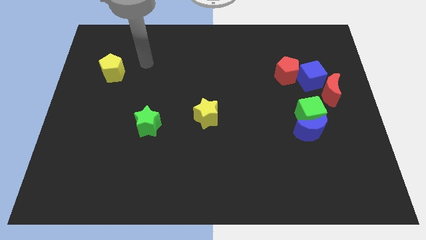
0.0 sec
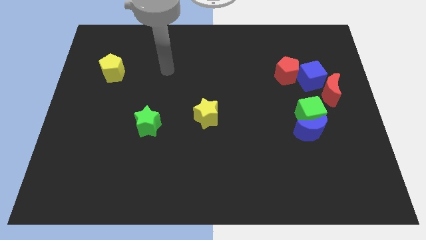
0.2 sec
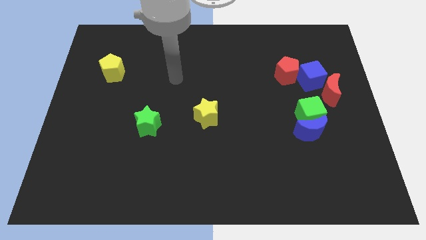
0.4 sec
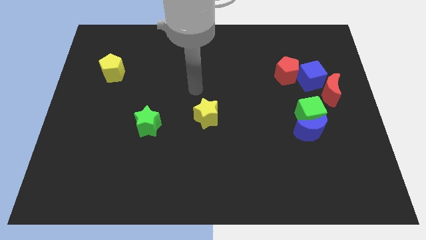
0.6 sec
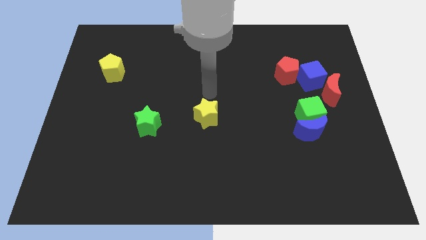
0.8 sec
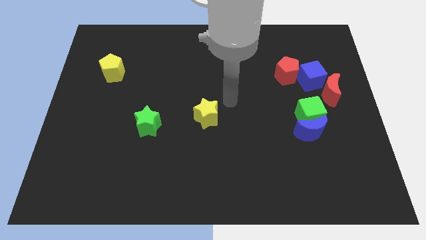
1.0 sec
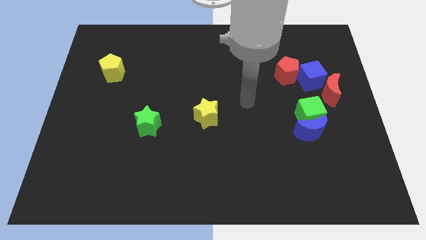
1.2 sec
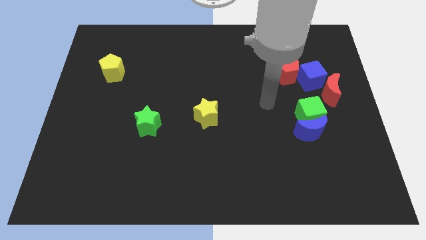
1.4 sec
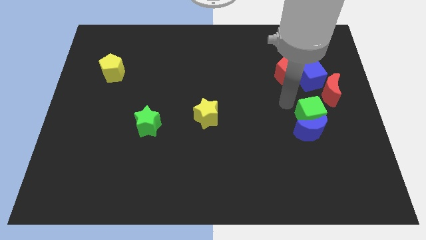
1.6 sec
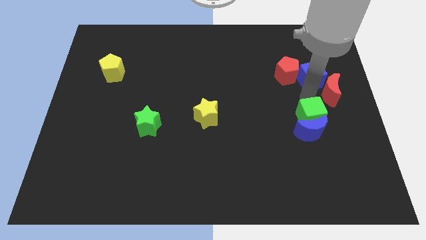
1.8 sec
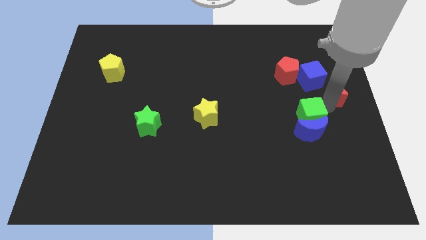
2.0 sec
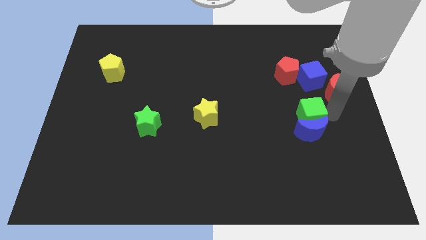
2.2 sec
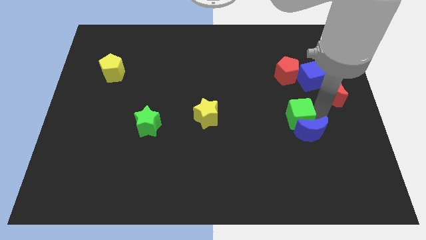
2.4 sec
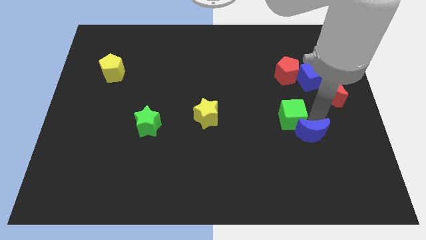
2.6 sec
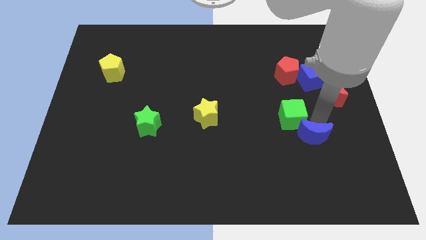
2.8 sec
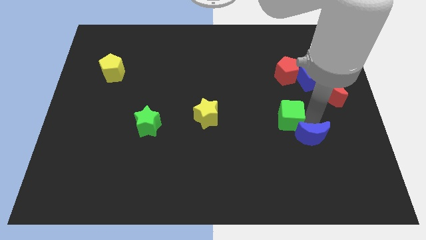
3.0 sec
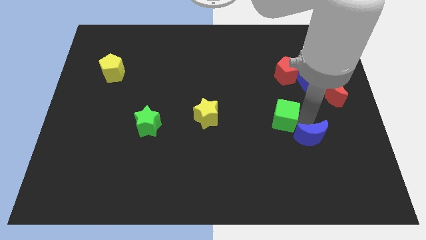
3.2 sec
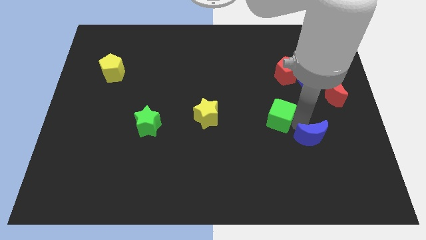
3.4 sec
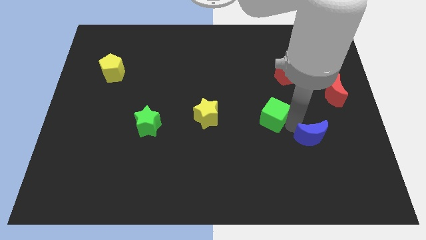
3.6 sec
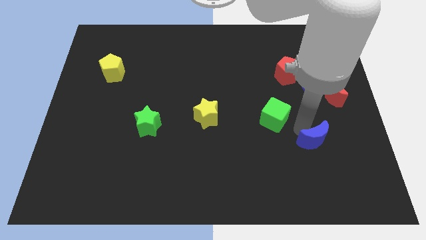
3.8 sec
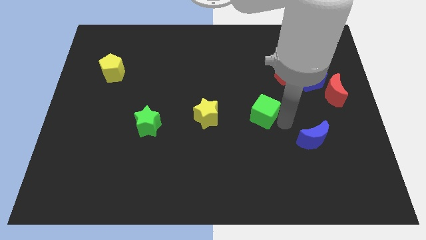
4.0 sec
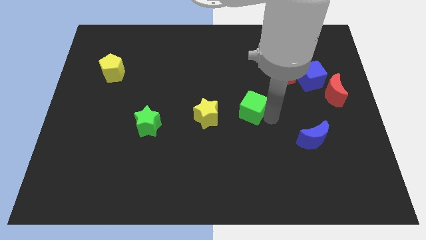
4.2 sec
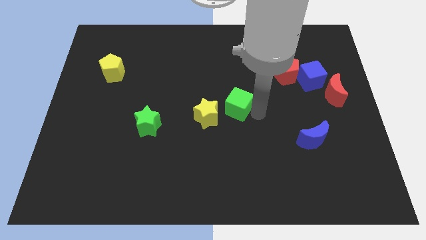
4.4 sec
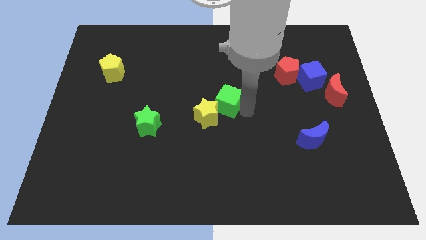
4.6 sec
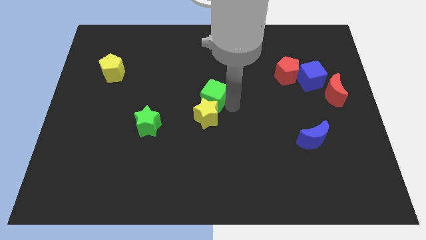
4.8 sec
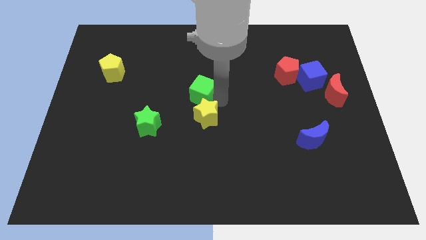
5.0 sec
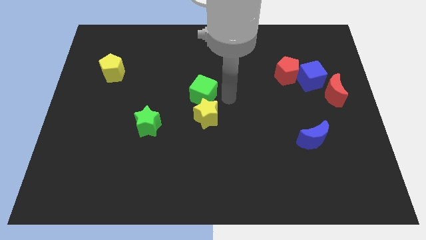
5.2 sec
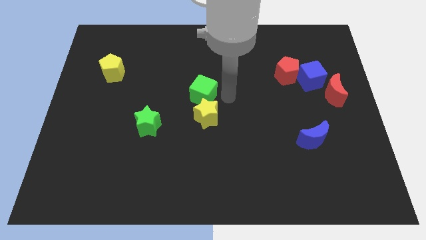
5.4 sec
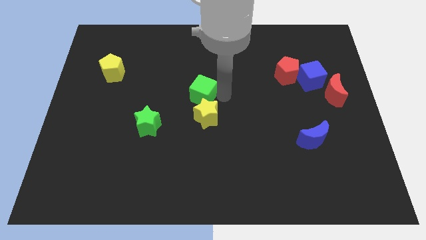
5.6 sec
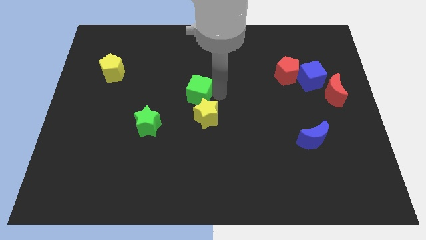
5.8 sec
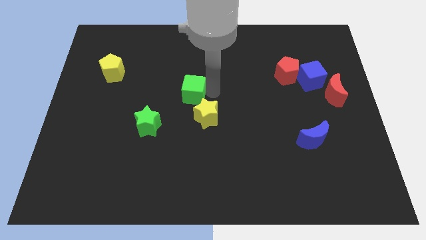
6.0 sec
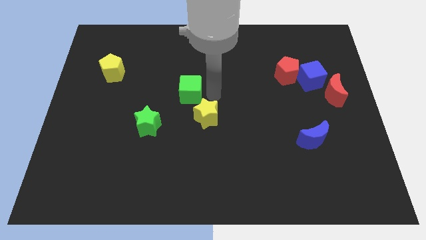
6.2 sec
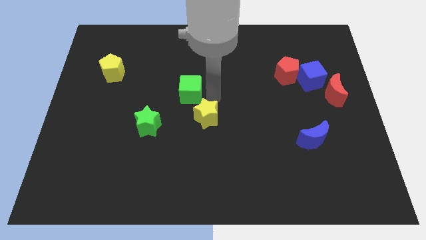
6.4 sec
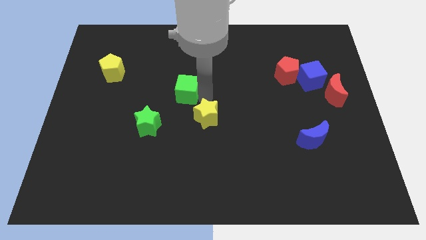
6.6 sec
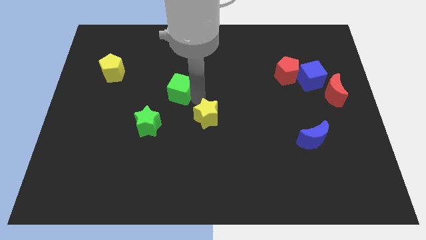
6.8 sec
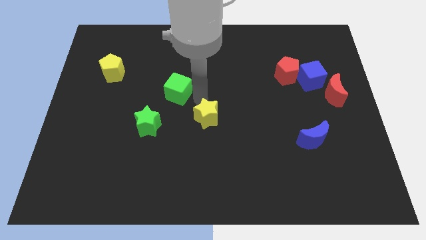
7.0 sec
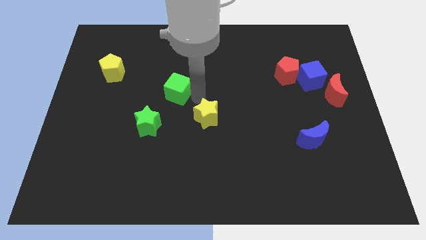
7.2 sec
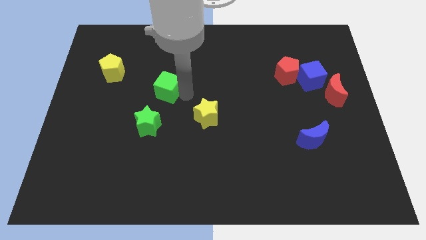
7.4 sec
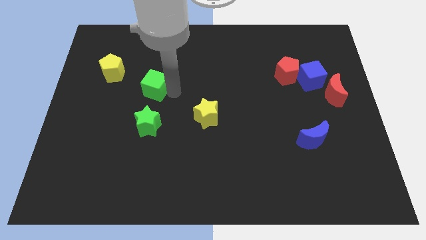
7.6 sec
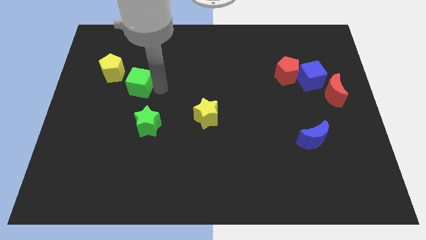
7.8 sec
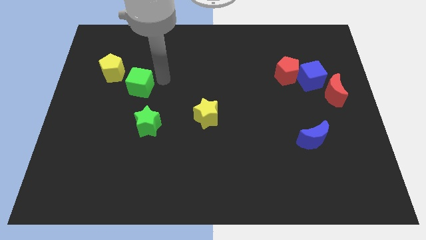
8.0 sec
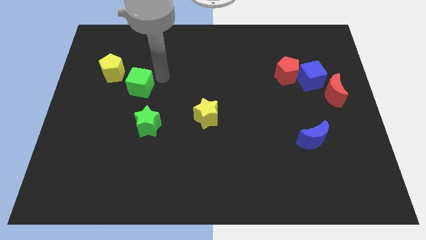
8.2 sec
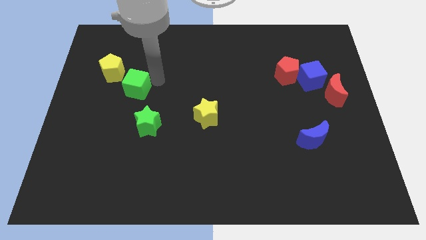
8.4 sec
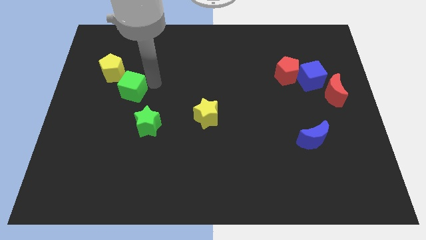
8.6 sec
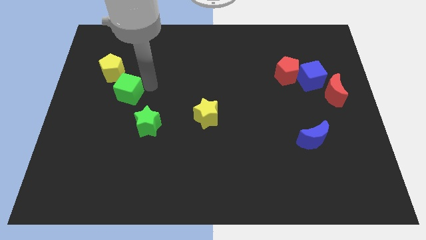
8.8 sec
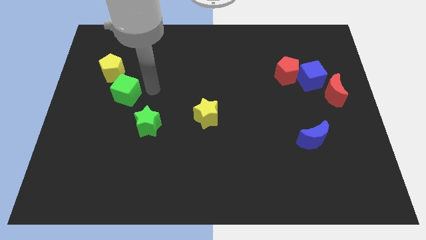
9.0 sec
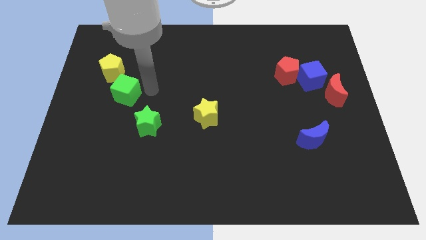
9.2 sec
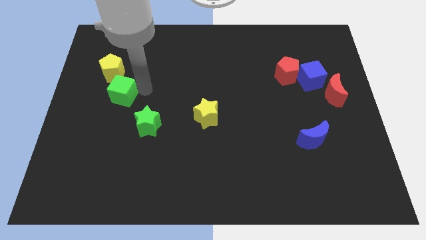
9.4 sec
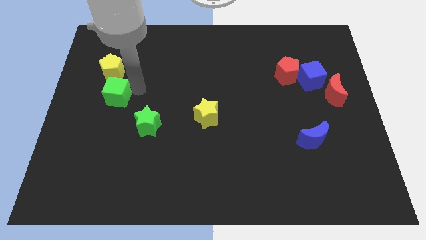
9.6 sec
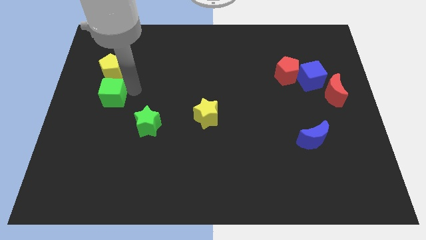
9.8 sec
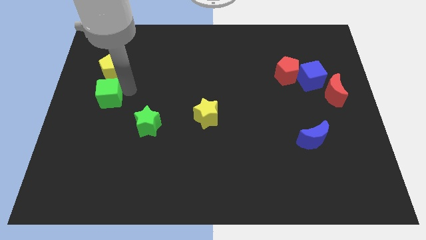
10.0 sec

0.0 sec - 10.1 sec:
slide the green cube to the left side of the board

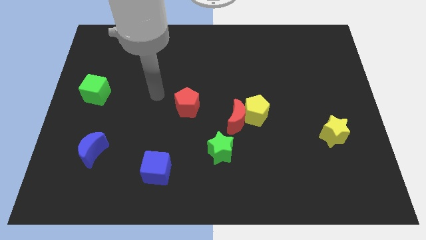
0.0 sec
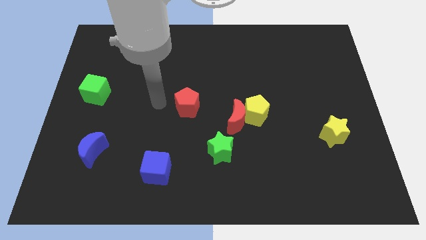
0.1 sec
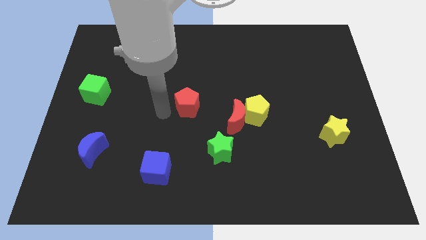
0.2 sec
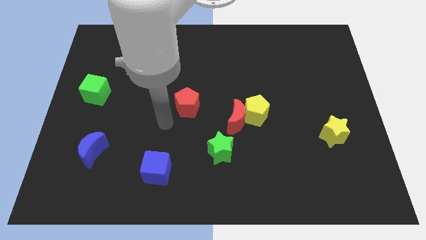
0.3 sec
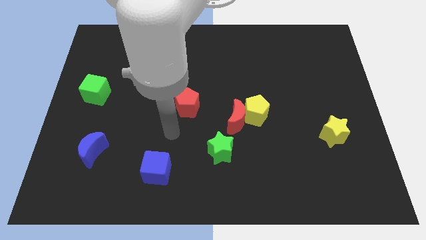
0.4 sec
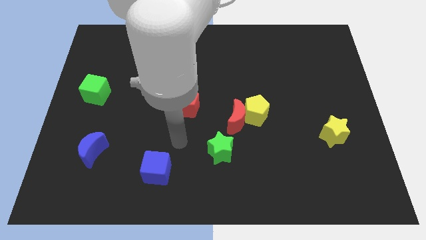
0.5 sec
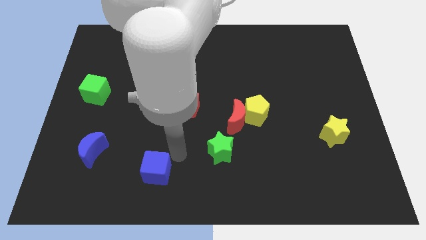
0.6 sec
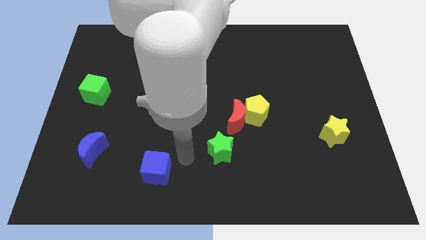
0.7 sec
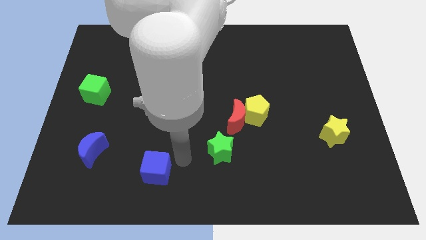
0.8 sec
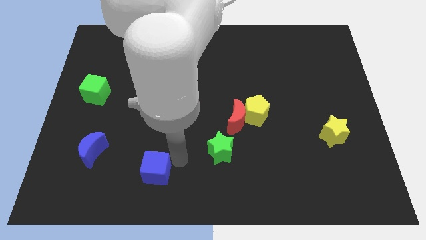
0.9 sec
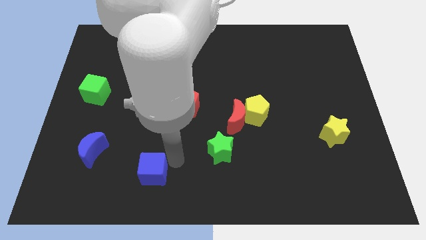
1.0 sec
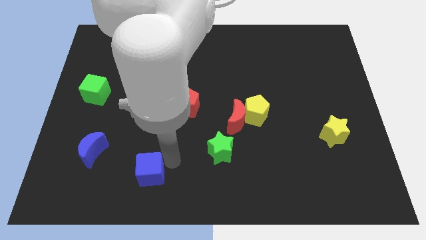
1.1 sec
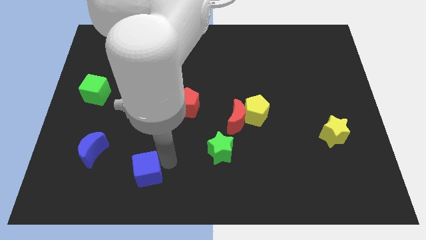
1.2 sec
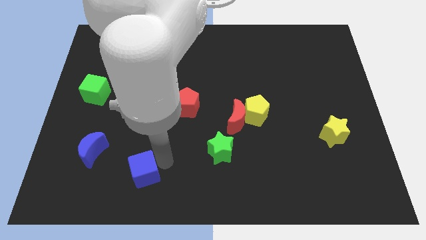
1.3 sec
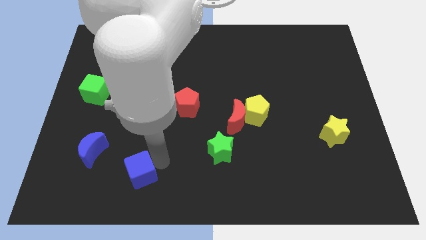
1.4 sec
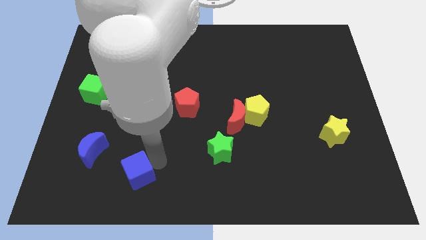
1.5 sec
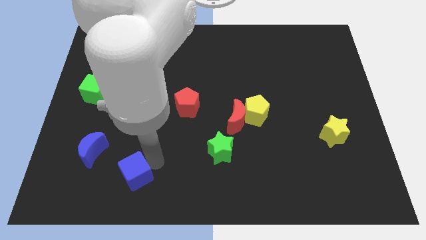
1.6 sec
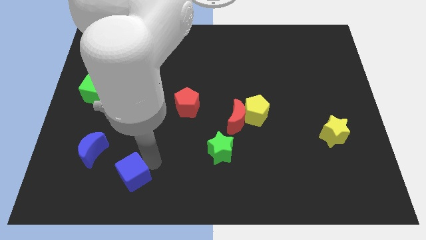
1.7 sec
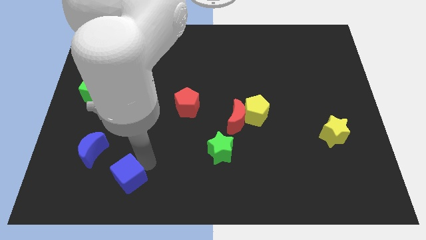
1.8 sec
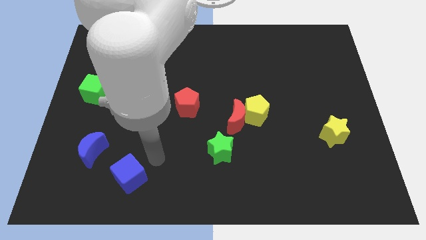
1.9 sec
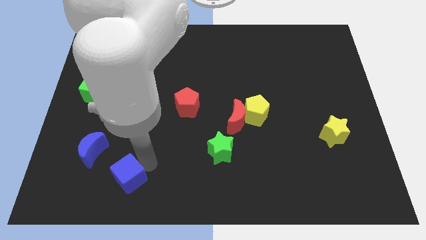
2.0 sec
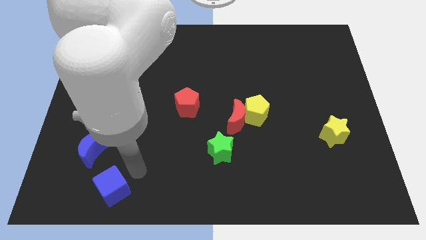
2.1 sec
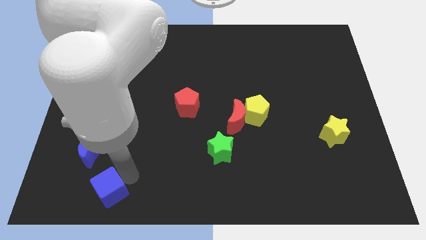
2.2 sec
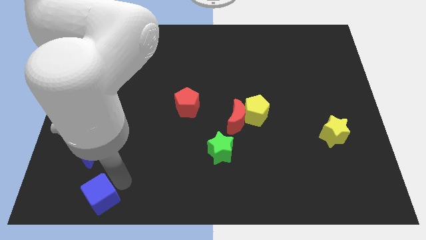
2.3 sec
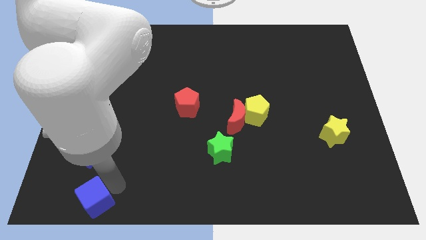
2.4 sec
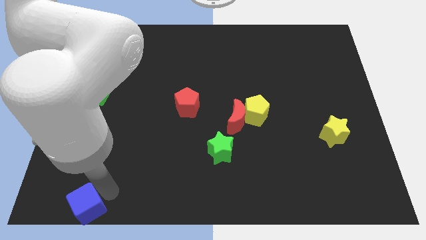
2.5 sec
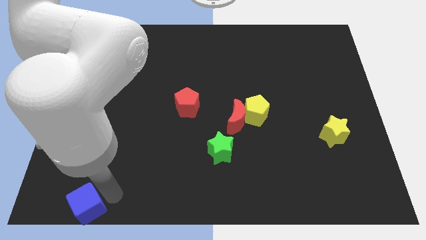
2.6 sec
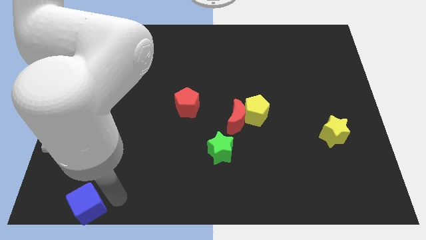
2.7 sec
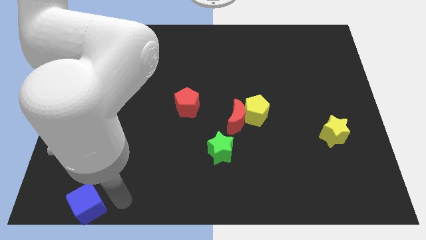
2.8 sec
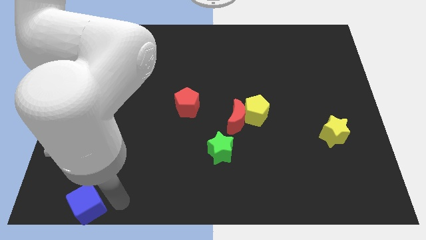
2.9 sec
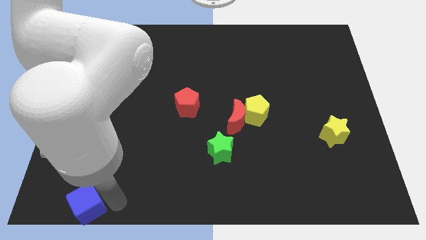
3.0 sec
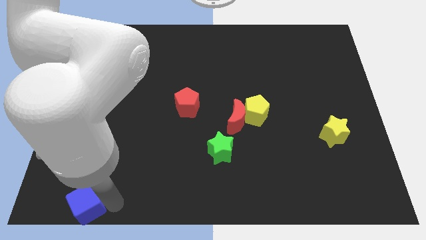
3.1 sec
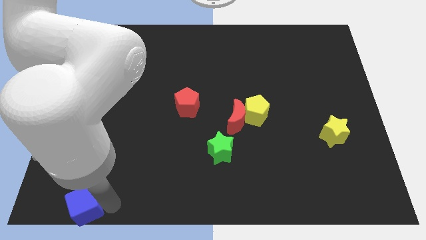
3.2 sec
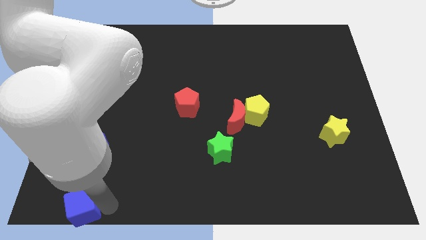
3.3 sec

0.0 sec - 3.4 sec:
push the blue cube to the bottom left
